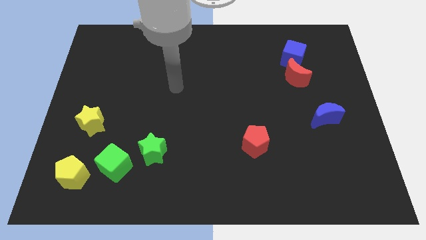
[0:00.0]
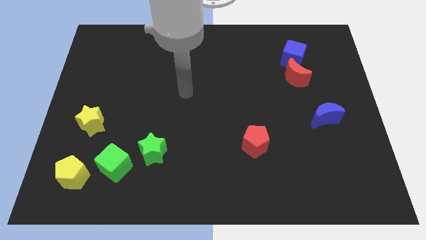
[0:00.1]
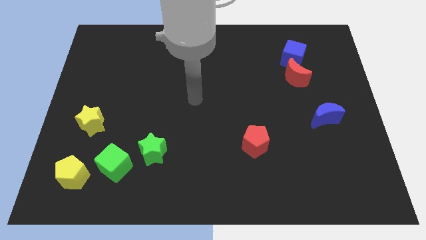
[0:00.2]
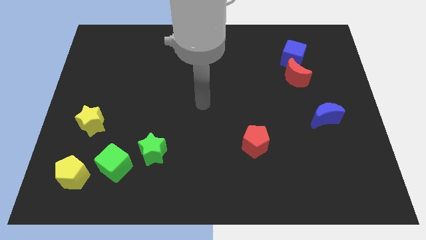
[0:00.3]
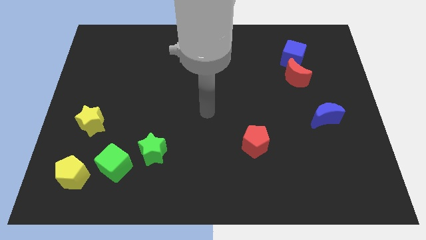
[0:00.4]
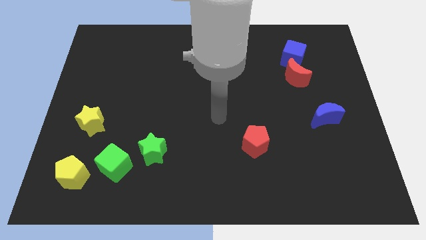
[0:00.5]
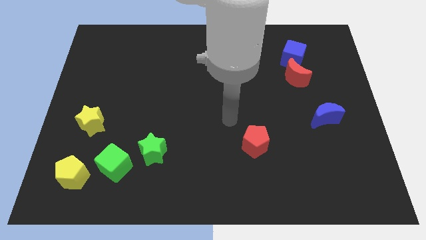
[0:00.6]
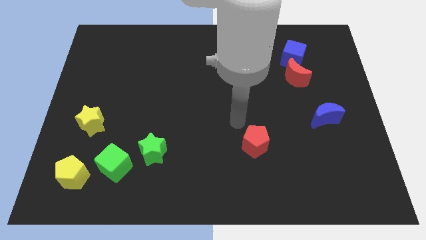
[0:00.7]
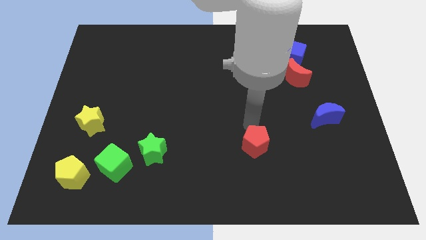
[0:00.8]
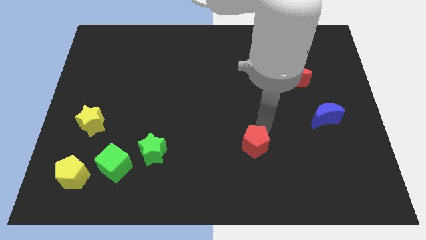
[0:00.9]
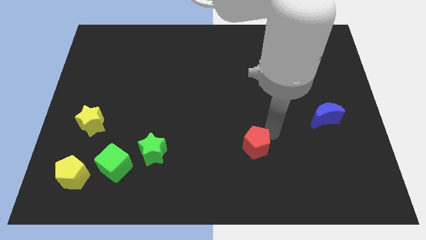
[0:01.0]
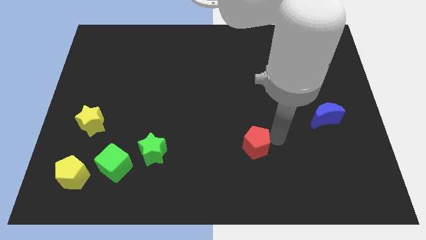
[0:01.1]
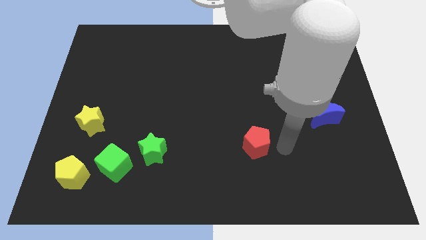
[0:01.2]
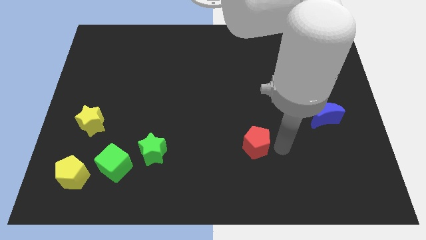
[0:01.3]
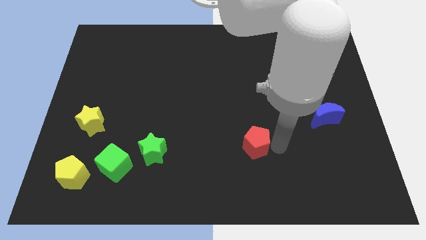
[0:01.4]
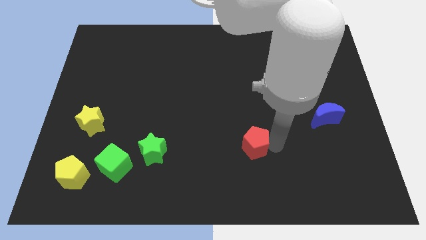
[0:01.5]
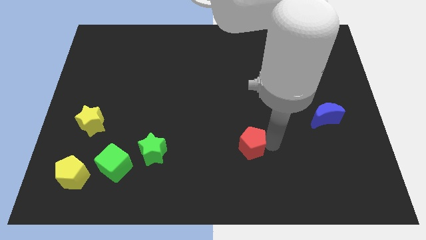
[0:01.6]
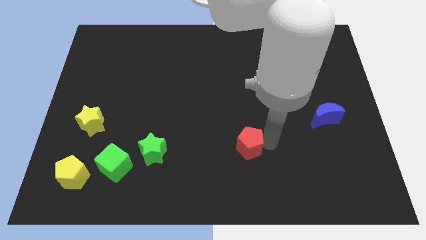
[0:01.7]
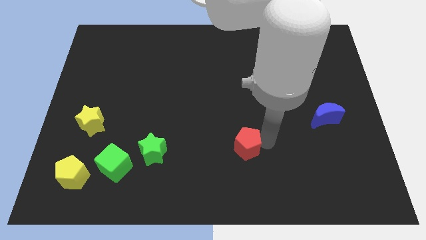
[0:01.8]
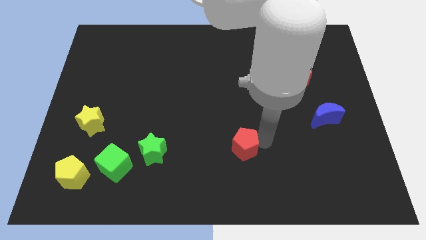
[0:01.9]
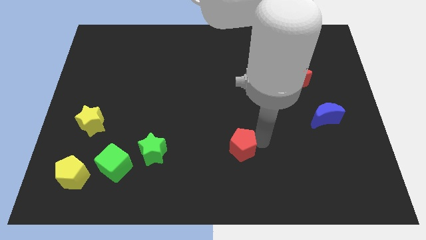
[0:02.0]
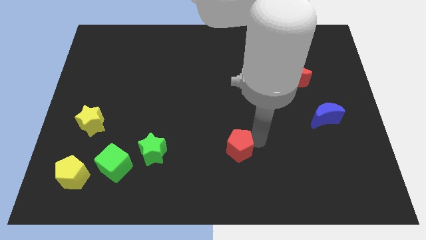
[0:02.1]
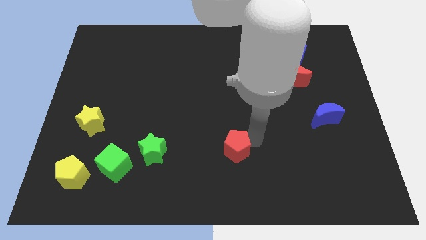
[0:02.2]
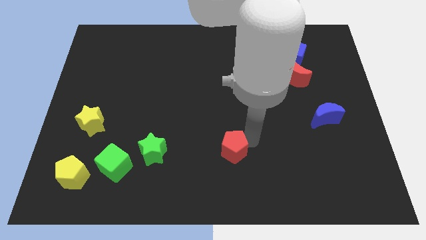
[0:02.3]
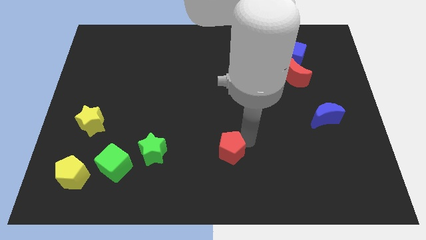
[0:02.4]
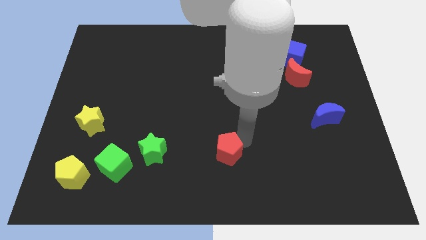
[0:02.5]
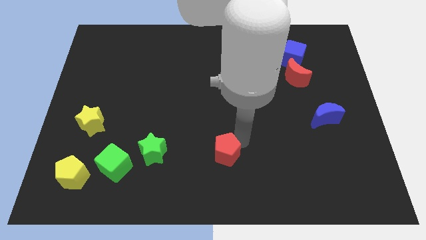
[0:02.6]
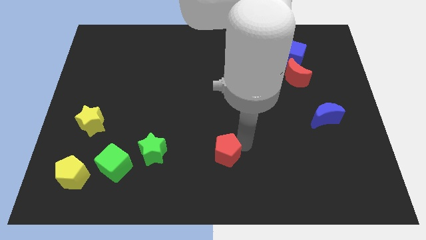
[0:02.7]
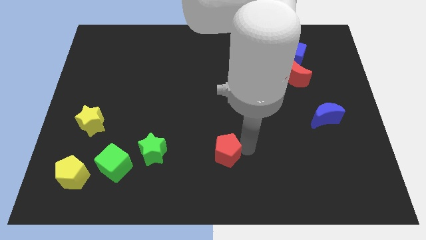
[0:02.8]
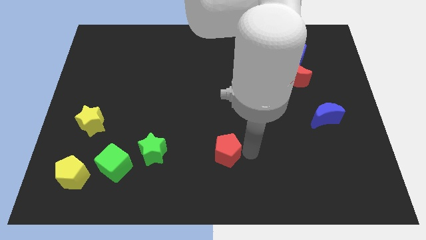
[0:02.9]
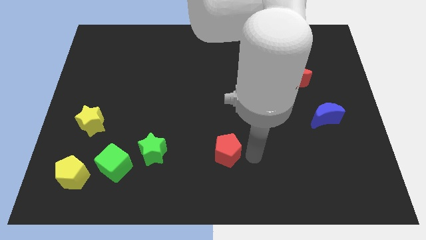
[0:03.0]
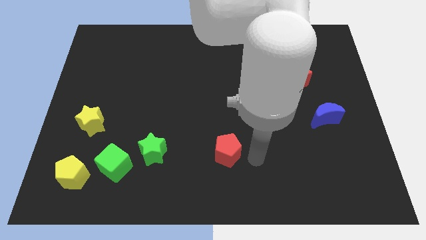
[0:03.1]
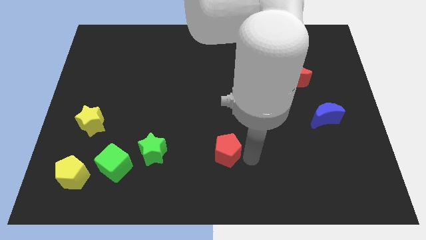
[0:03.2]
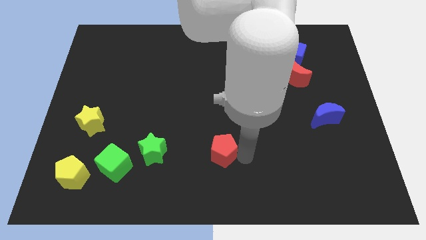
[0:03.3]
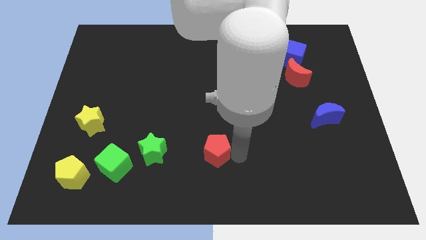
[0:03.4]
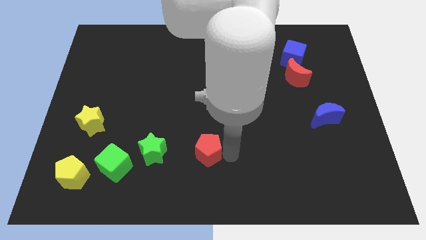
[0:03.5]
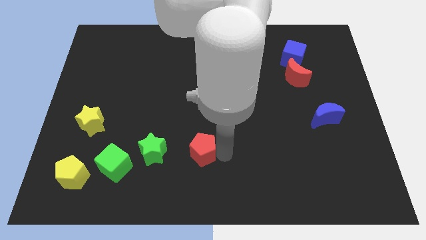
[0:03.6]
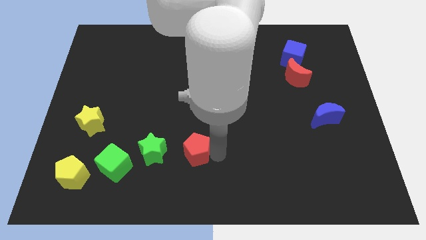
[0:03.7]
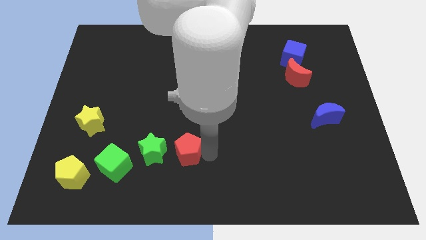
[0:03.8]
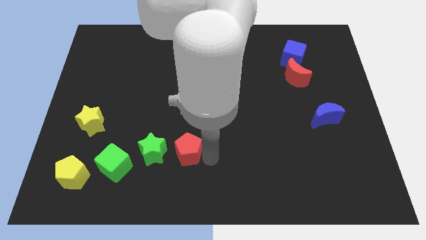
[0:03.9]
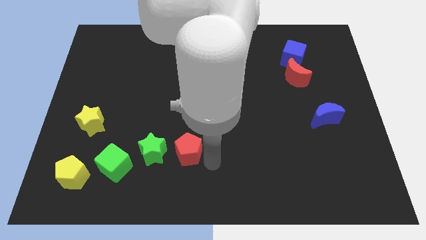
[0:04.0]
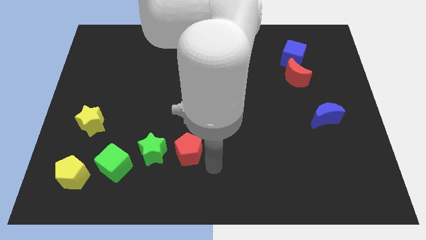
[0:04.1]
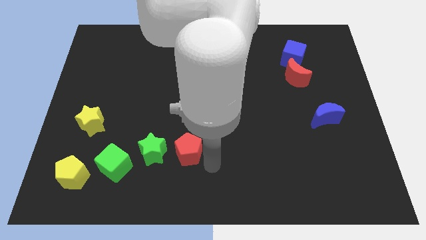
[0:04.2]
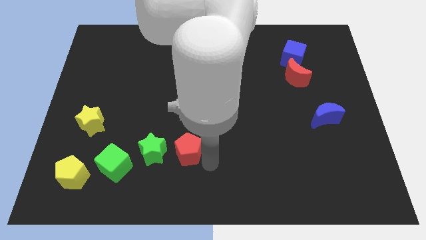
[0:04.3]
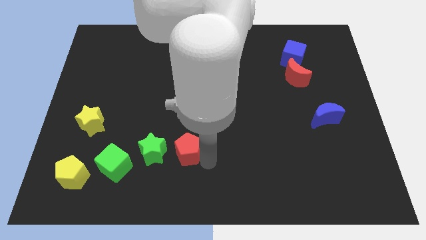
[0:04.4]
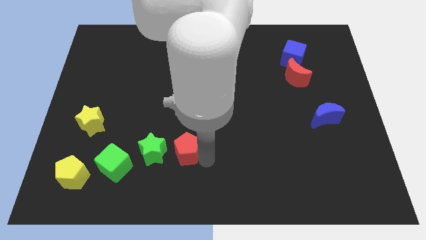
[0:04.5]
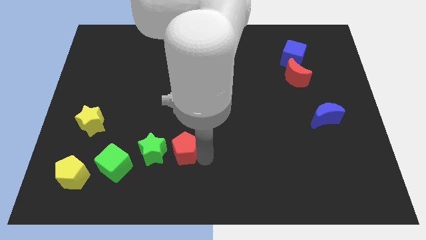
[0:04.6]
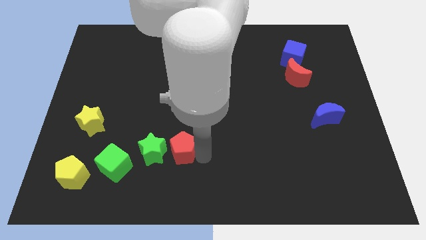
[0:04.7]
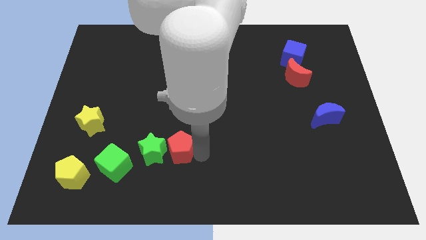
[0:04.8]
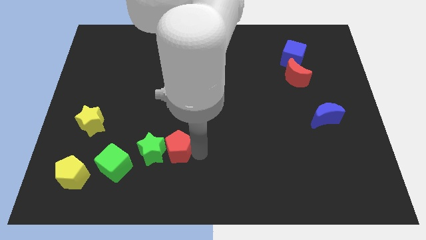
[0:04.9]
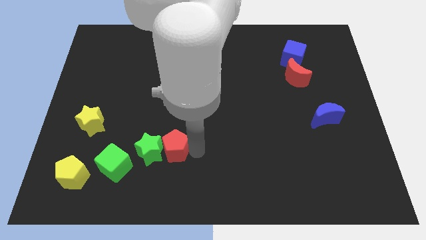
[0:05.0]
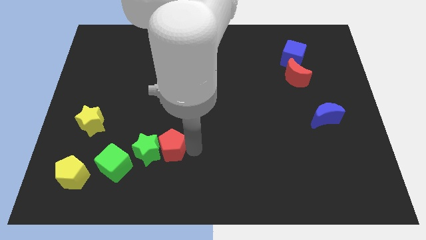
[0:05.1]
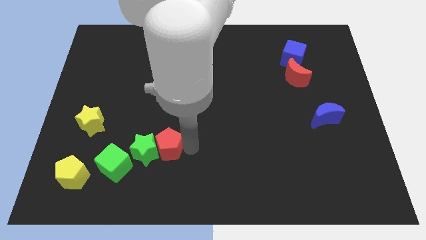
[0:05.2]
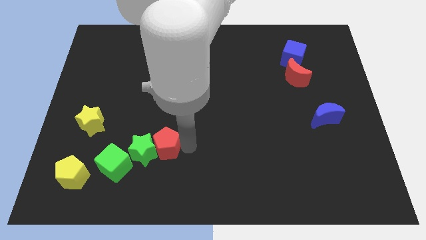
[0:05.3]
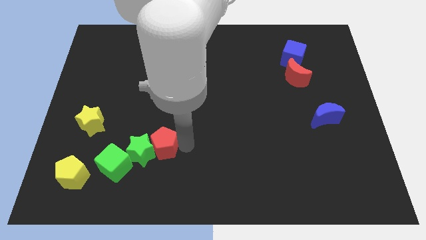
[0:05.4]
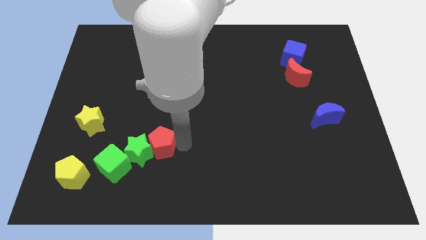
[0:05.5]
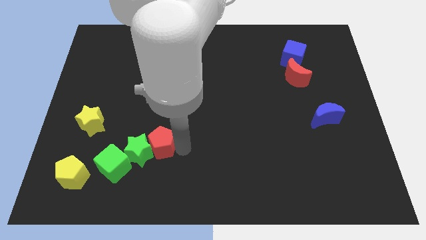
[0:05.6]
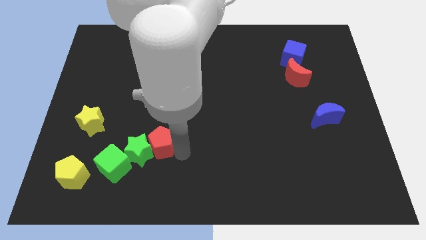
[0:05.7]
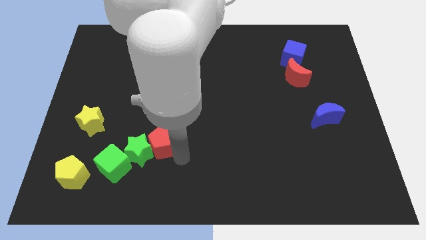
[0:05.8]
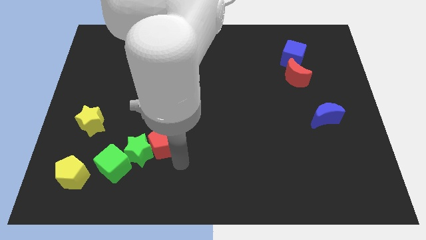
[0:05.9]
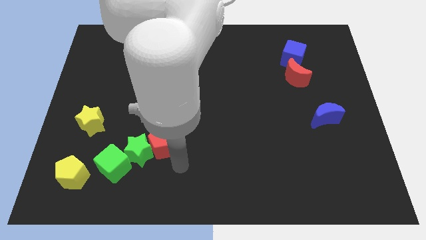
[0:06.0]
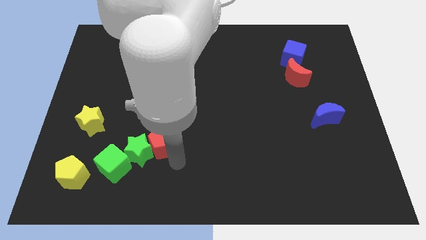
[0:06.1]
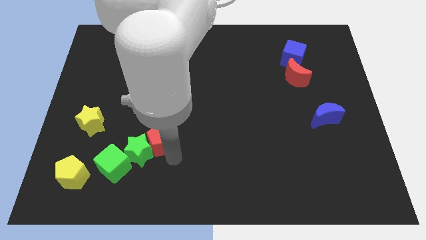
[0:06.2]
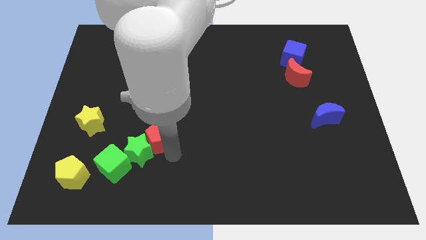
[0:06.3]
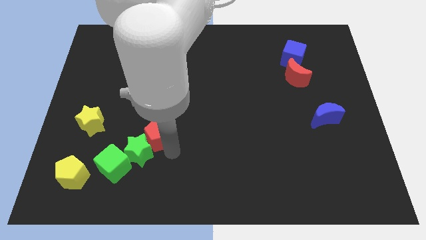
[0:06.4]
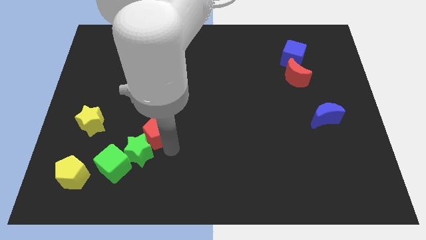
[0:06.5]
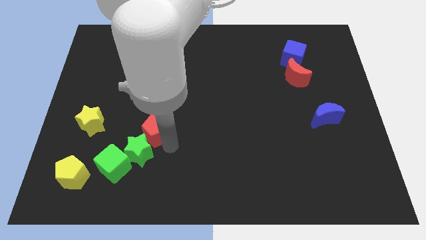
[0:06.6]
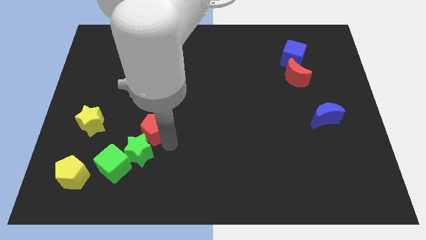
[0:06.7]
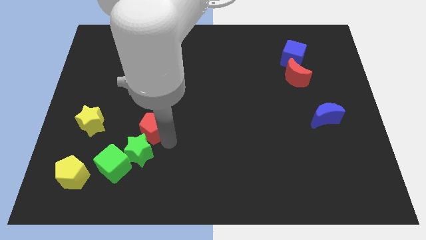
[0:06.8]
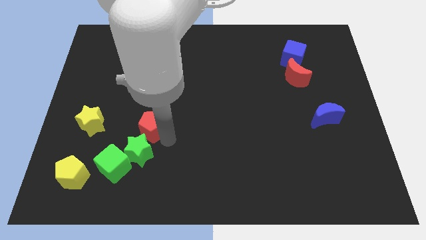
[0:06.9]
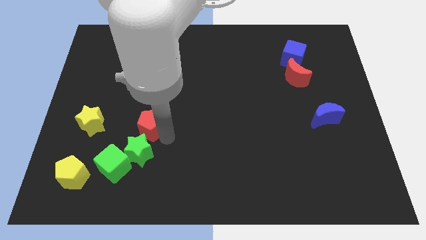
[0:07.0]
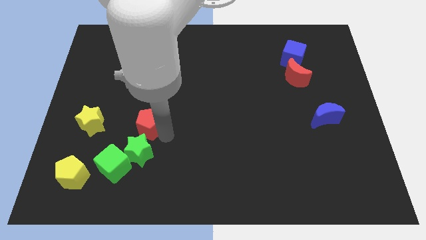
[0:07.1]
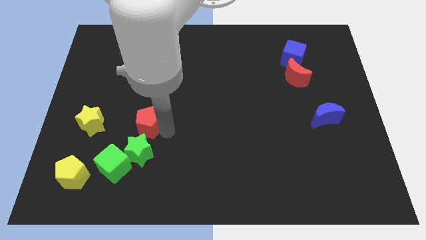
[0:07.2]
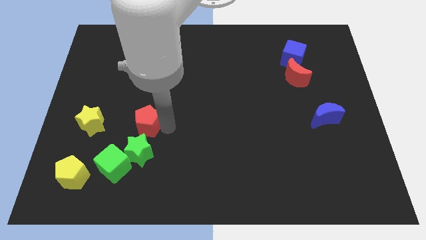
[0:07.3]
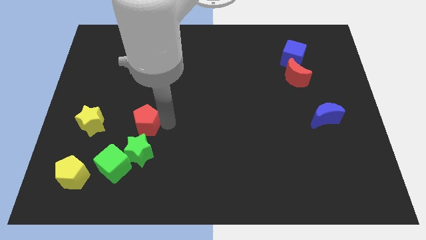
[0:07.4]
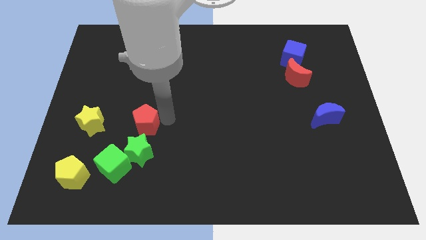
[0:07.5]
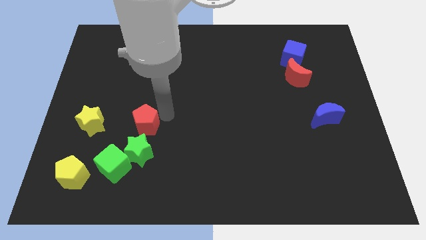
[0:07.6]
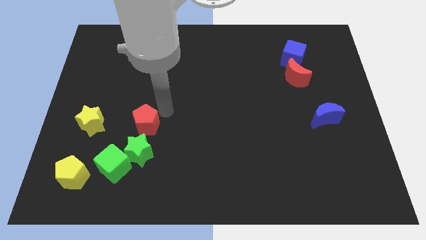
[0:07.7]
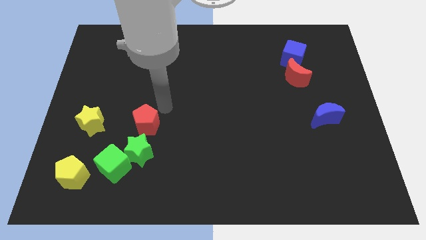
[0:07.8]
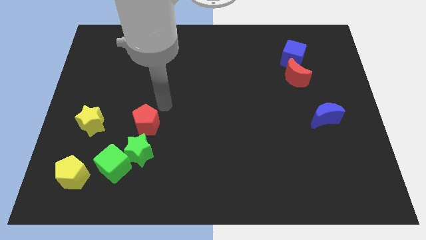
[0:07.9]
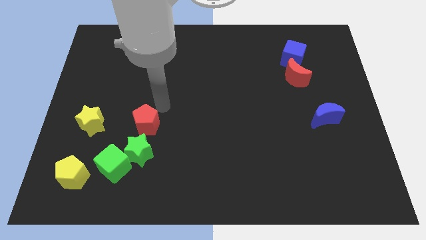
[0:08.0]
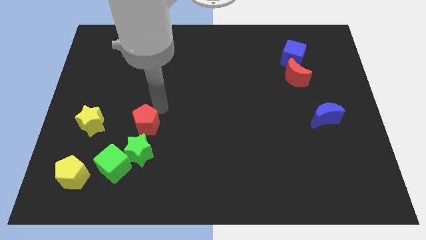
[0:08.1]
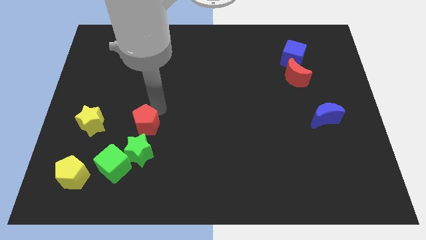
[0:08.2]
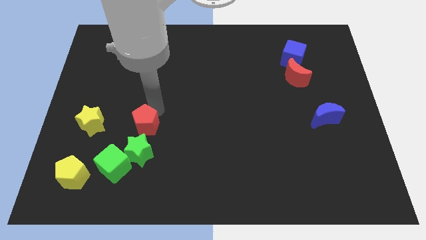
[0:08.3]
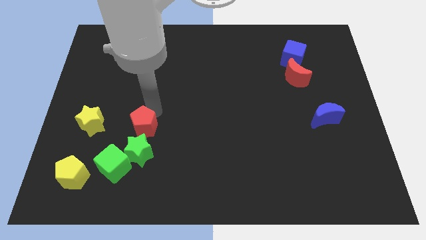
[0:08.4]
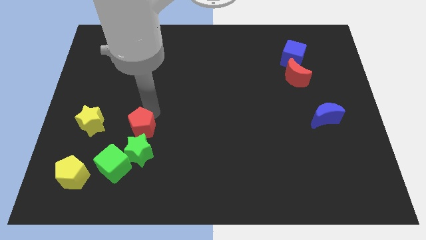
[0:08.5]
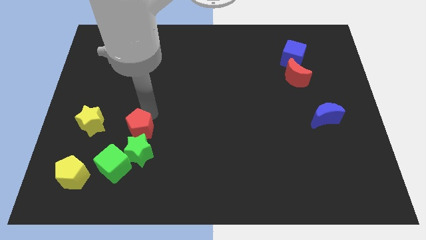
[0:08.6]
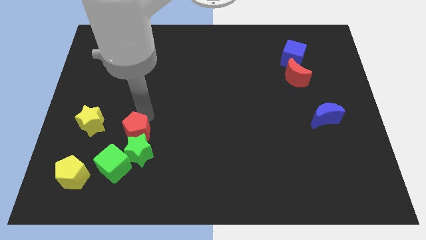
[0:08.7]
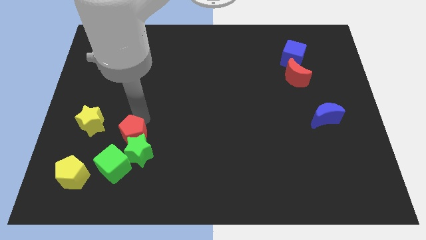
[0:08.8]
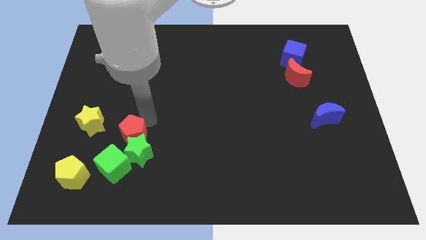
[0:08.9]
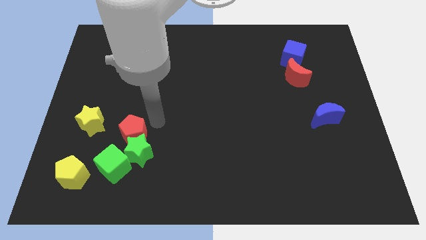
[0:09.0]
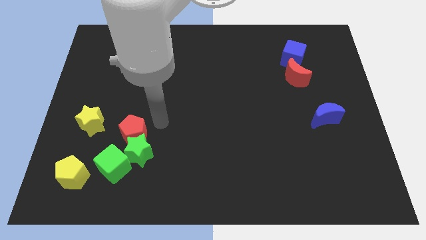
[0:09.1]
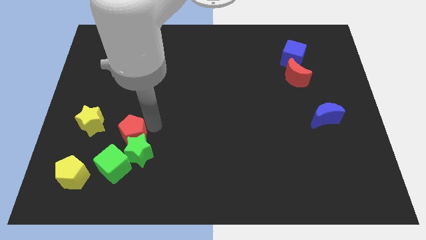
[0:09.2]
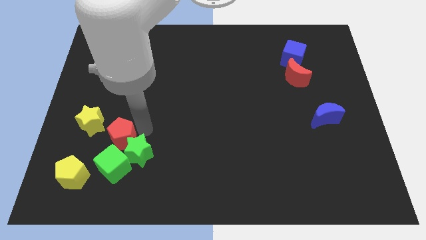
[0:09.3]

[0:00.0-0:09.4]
move the red pentagon just left of the green star
